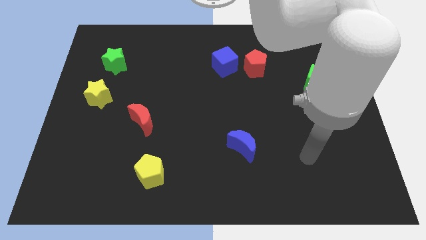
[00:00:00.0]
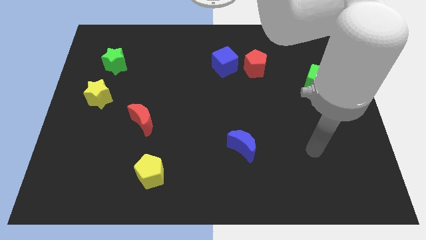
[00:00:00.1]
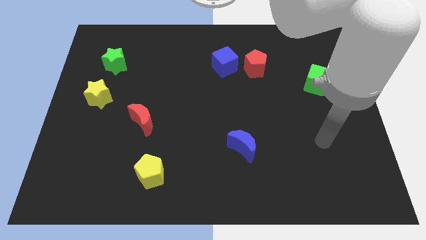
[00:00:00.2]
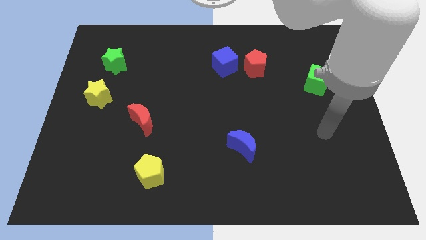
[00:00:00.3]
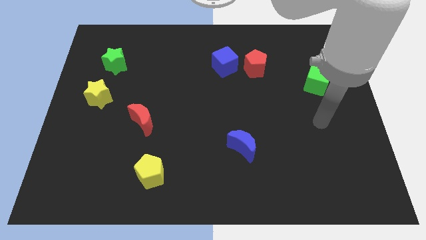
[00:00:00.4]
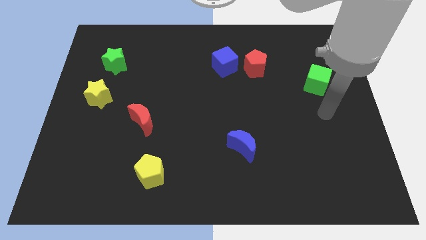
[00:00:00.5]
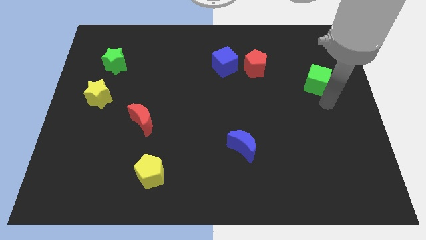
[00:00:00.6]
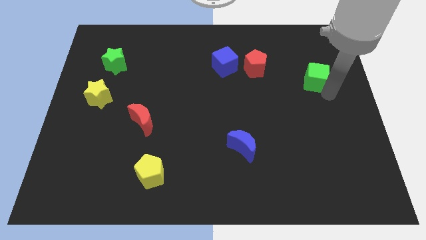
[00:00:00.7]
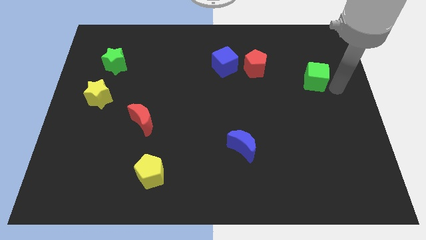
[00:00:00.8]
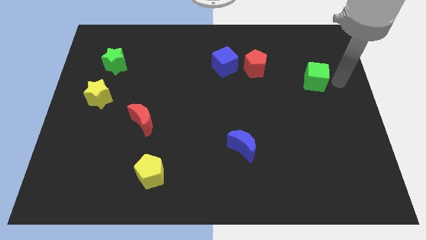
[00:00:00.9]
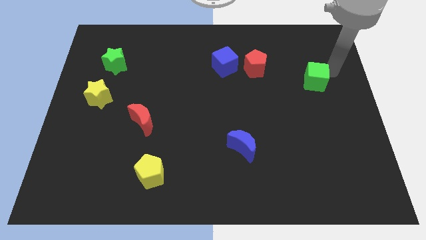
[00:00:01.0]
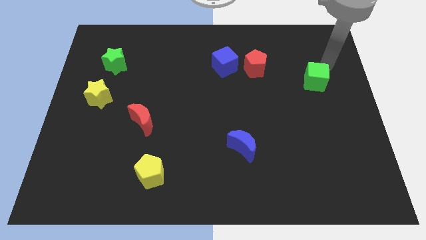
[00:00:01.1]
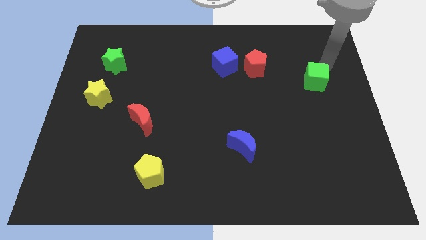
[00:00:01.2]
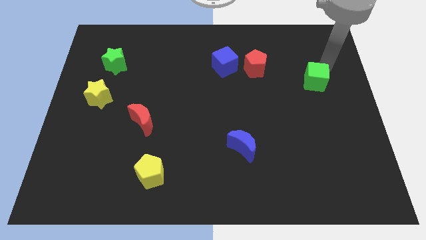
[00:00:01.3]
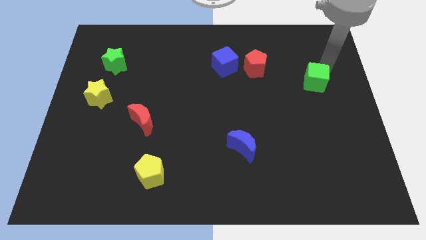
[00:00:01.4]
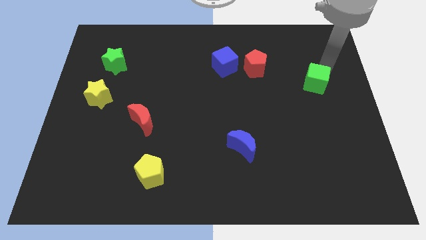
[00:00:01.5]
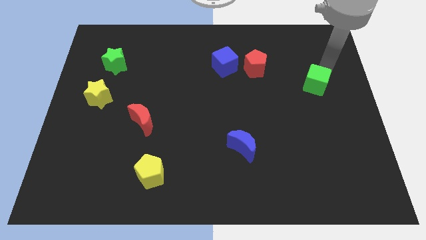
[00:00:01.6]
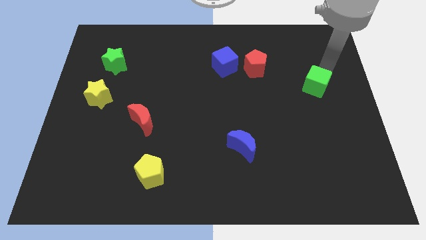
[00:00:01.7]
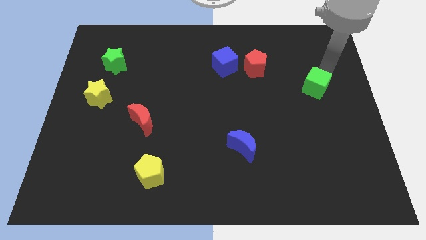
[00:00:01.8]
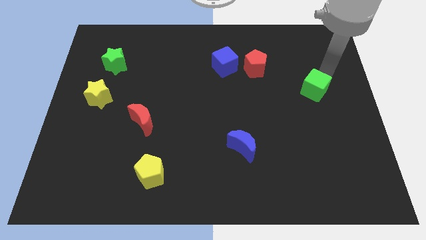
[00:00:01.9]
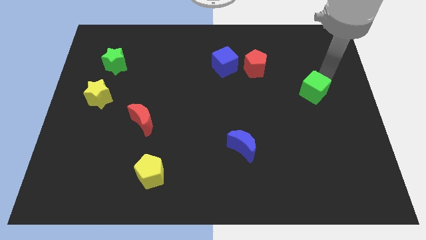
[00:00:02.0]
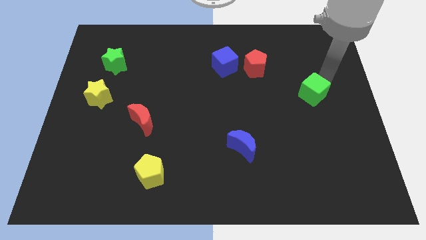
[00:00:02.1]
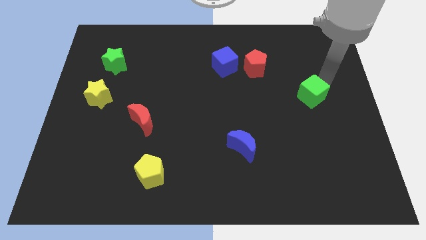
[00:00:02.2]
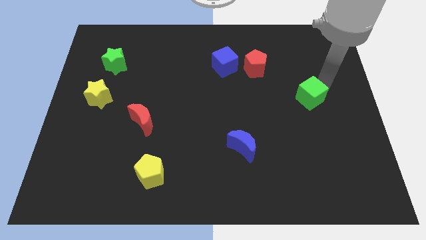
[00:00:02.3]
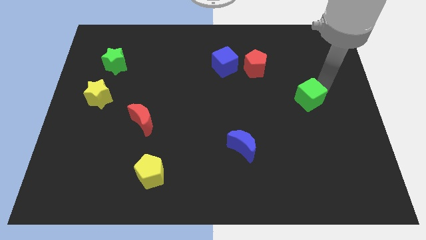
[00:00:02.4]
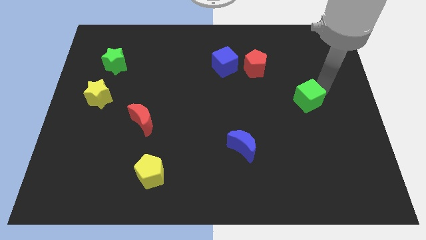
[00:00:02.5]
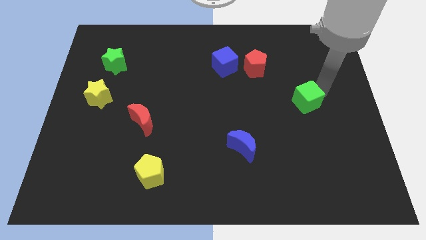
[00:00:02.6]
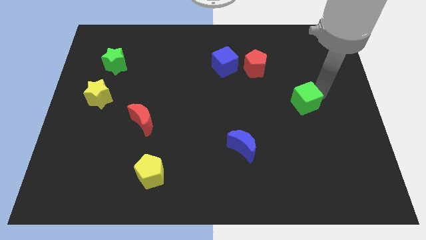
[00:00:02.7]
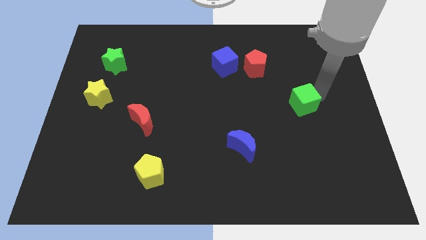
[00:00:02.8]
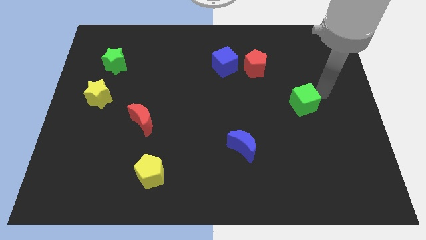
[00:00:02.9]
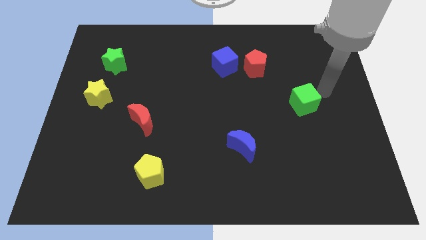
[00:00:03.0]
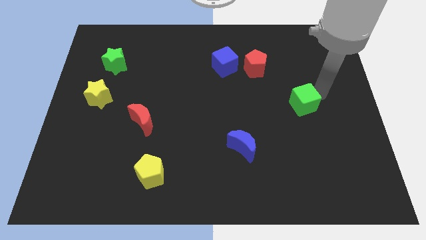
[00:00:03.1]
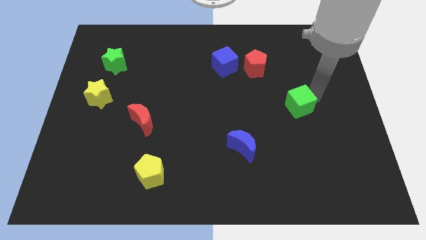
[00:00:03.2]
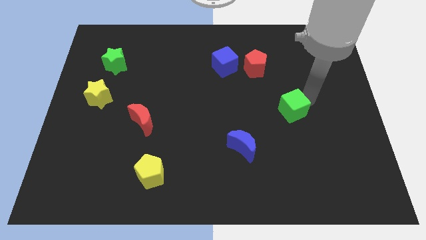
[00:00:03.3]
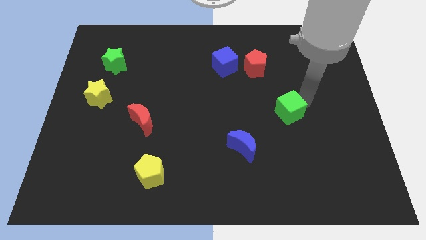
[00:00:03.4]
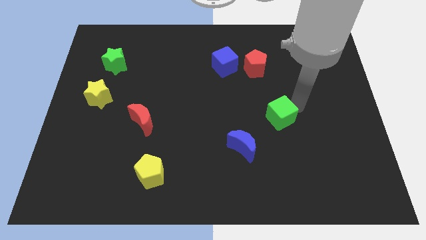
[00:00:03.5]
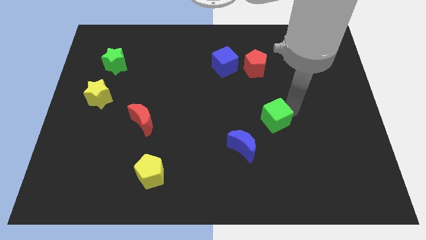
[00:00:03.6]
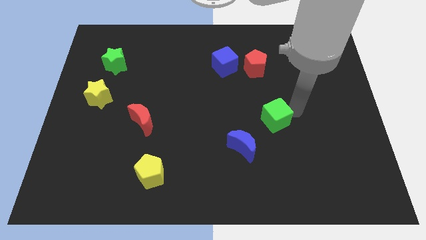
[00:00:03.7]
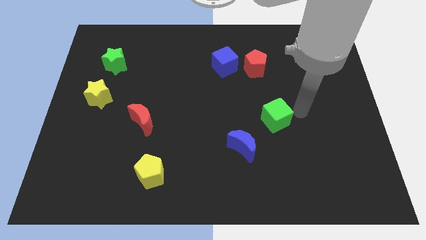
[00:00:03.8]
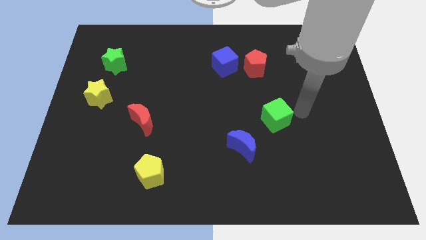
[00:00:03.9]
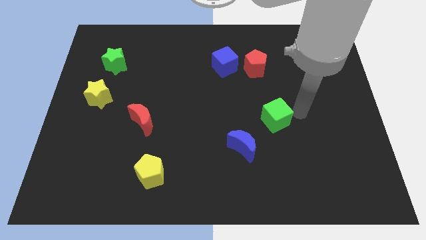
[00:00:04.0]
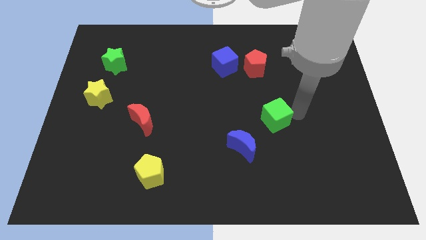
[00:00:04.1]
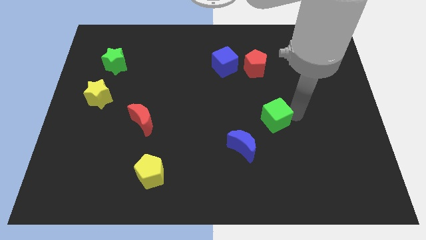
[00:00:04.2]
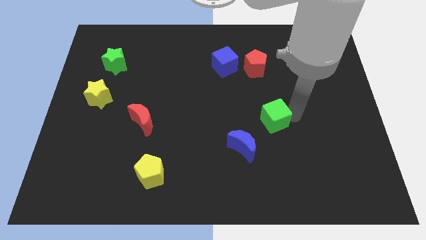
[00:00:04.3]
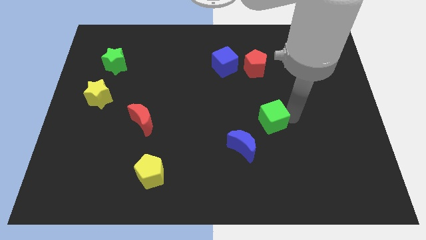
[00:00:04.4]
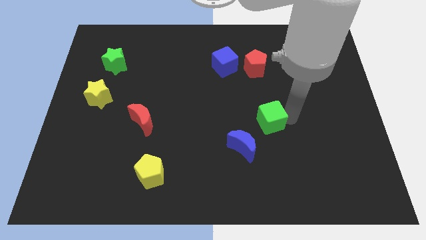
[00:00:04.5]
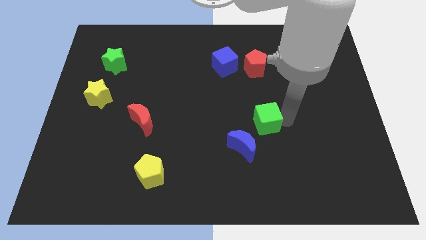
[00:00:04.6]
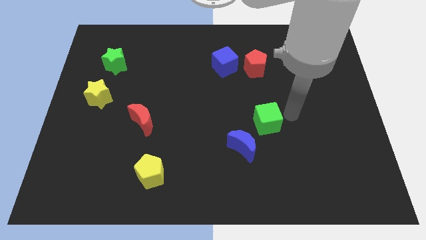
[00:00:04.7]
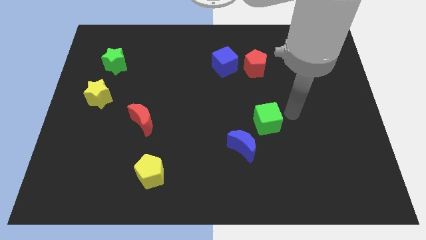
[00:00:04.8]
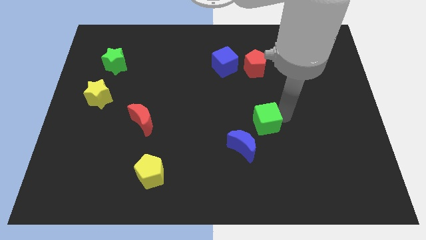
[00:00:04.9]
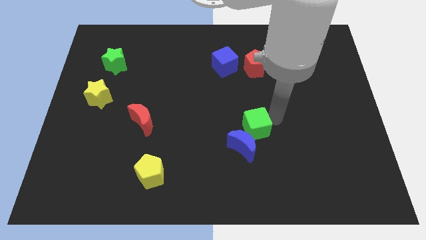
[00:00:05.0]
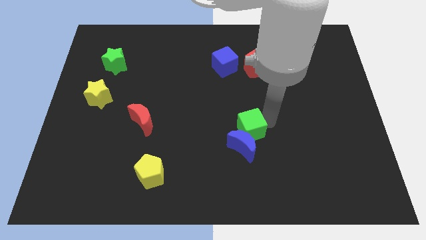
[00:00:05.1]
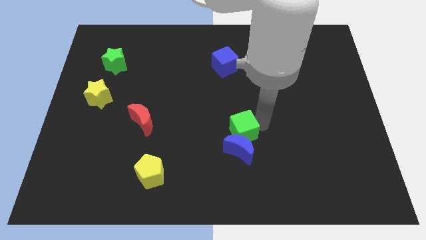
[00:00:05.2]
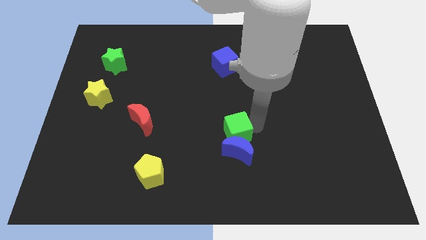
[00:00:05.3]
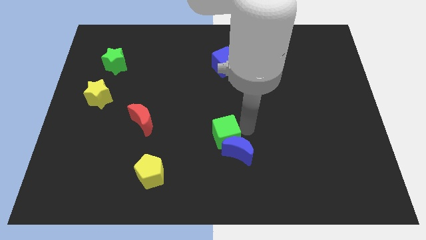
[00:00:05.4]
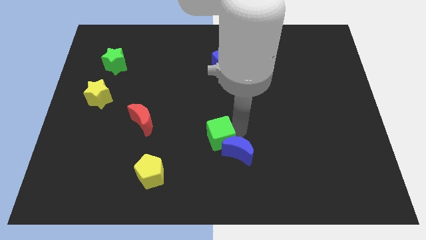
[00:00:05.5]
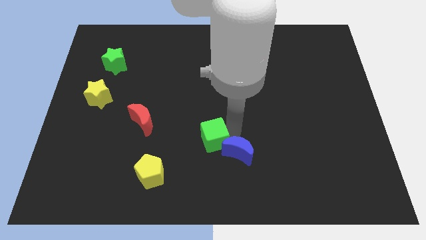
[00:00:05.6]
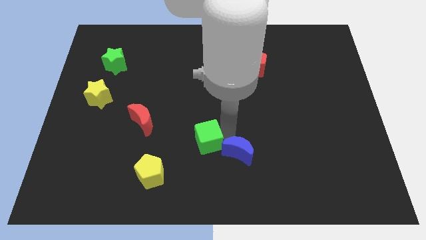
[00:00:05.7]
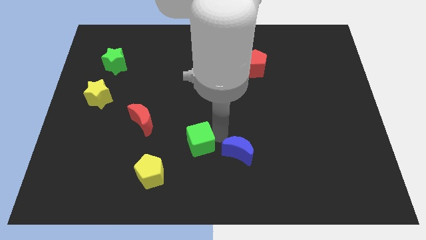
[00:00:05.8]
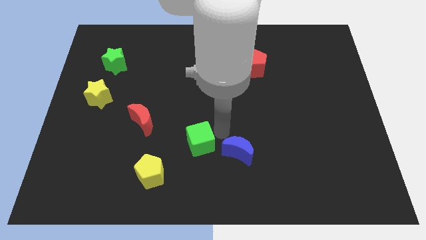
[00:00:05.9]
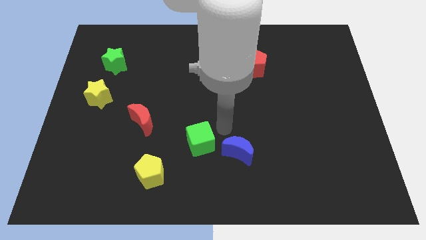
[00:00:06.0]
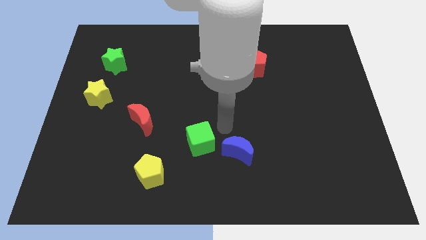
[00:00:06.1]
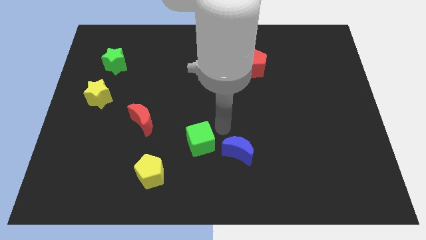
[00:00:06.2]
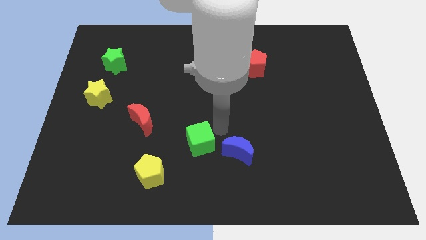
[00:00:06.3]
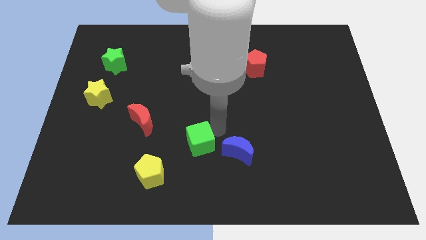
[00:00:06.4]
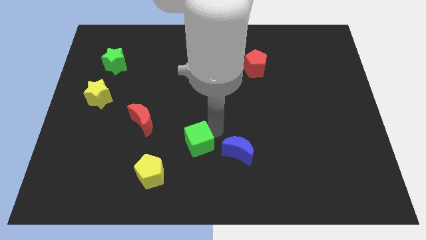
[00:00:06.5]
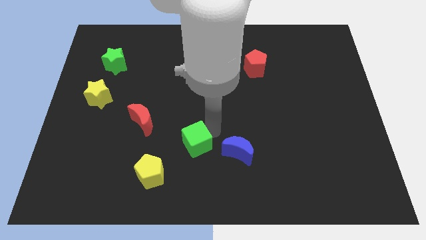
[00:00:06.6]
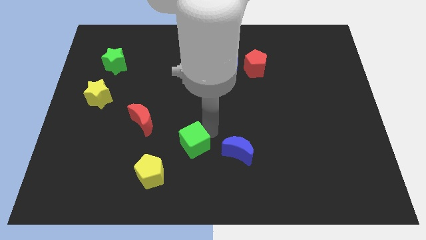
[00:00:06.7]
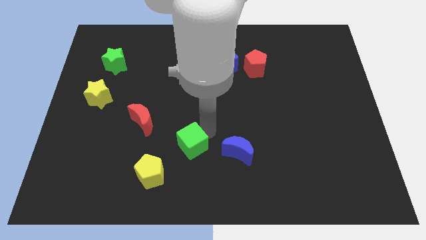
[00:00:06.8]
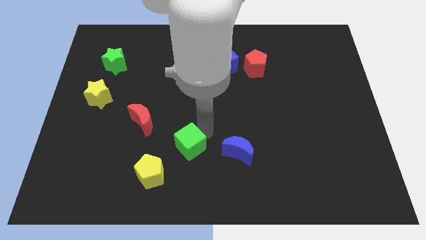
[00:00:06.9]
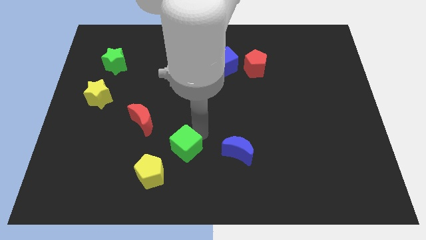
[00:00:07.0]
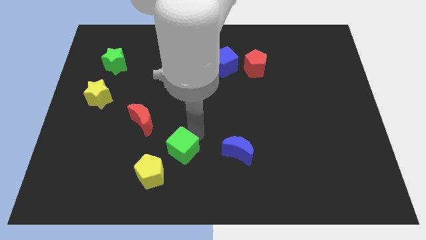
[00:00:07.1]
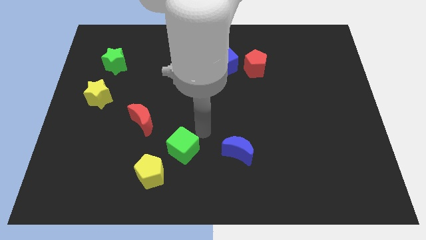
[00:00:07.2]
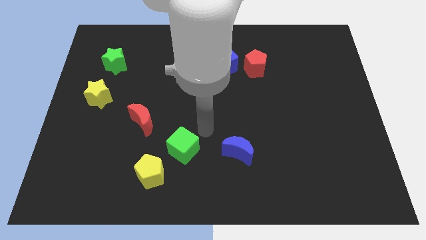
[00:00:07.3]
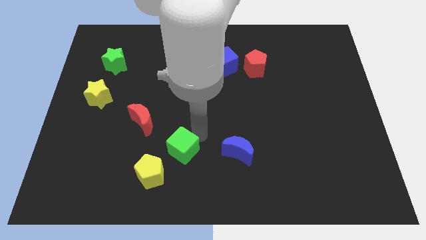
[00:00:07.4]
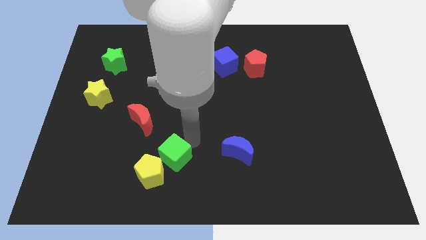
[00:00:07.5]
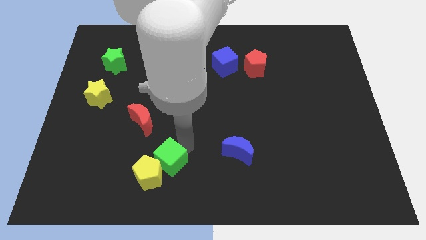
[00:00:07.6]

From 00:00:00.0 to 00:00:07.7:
push the green cube towards the yellow pentagon
